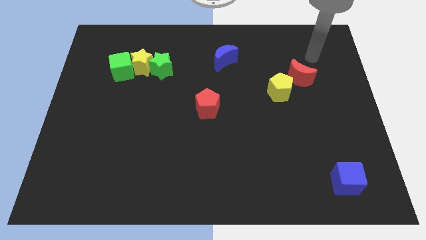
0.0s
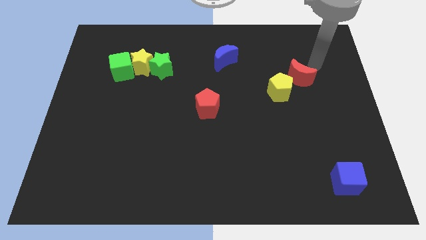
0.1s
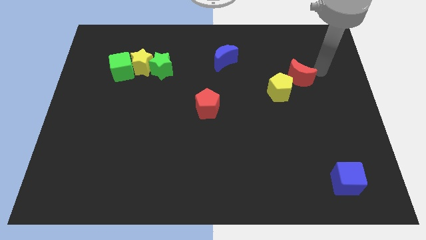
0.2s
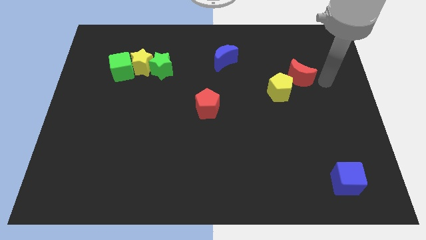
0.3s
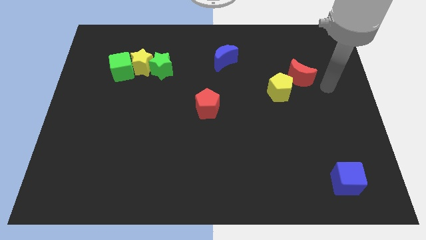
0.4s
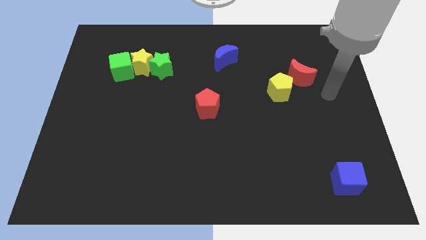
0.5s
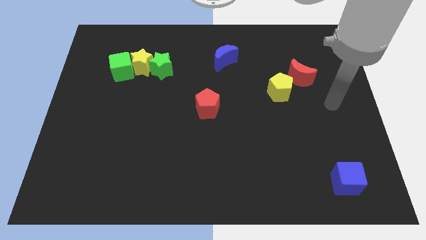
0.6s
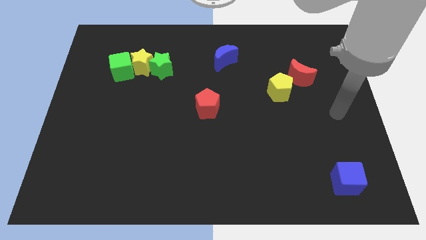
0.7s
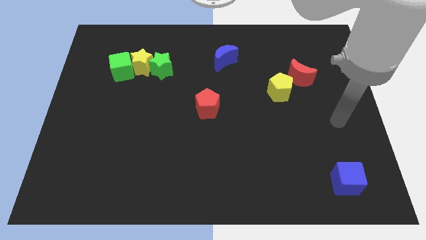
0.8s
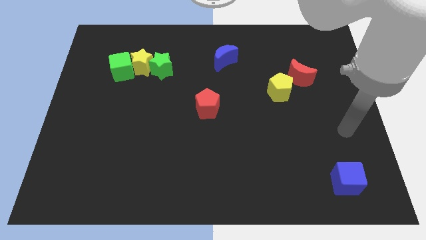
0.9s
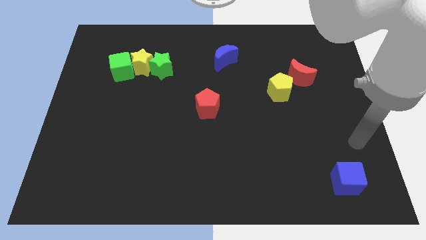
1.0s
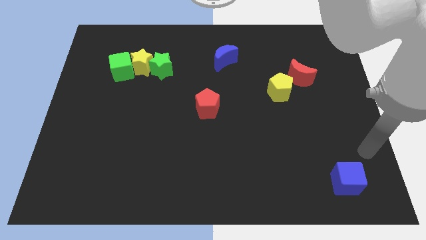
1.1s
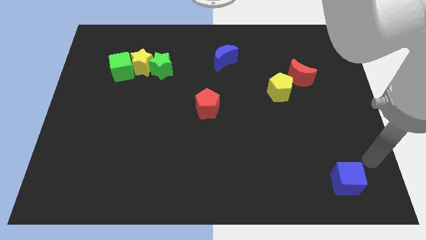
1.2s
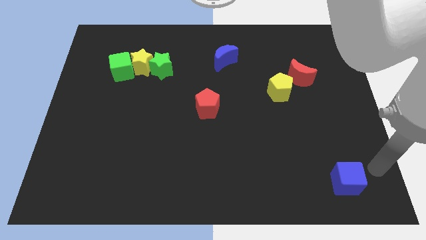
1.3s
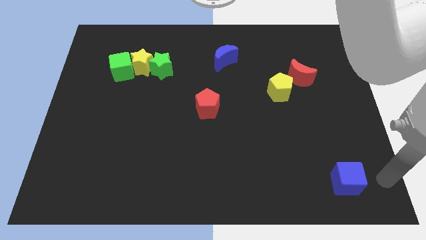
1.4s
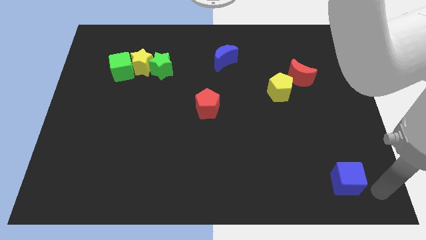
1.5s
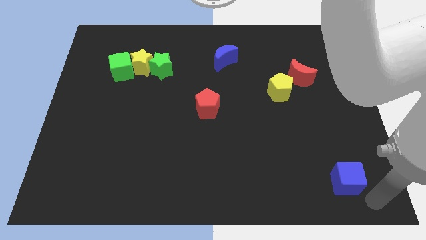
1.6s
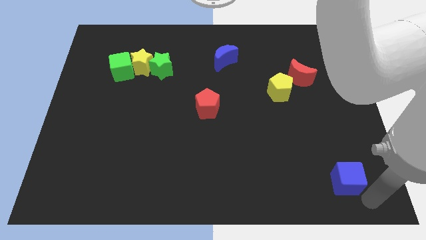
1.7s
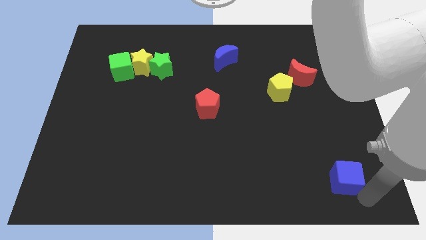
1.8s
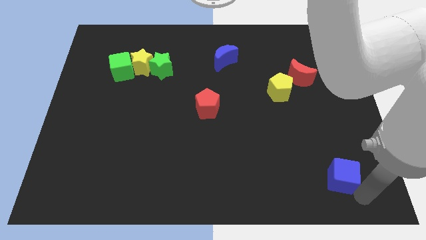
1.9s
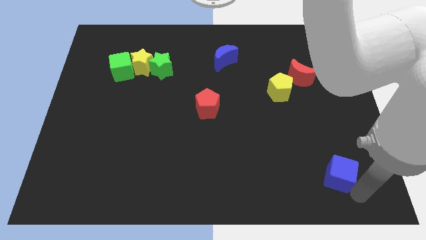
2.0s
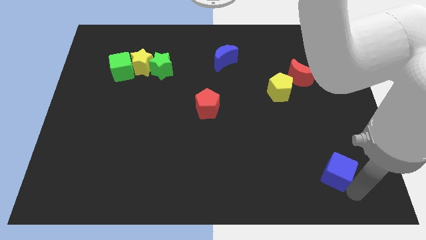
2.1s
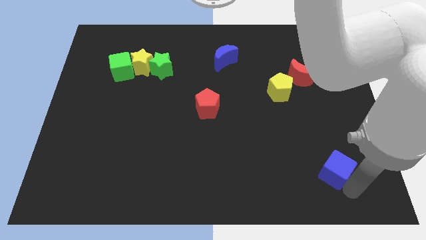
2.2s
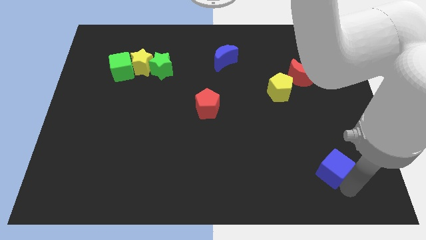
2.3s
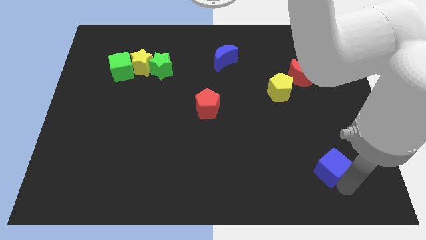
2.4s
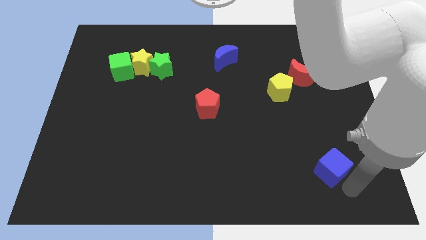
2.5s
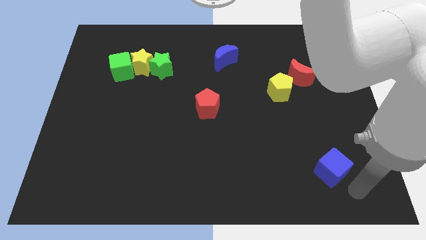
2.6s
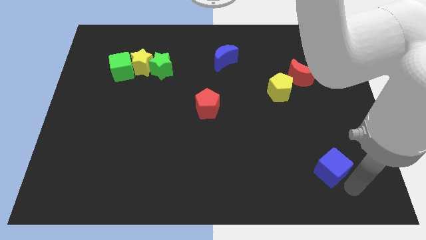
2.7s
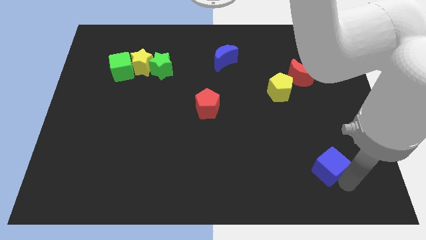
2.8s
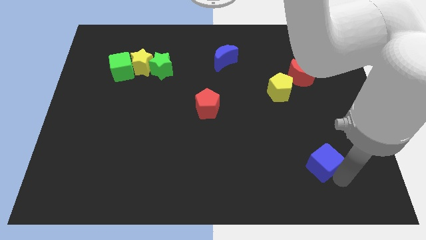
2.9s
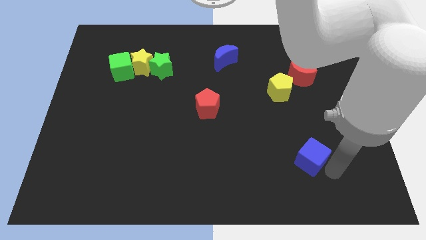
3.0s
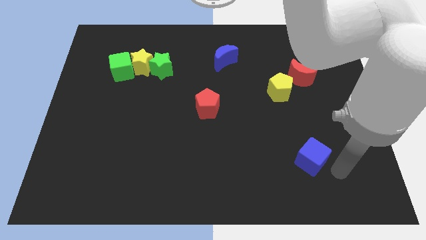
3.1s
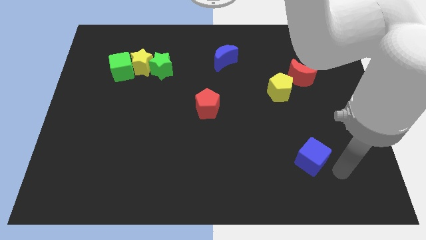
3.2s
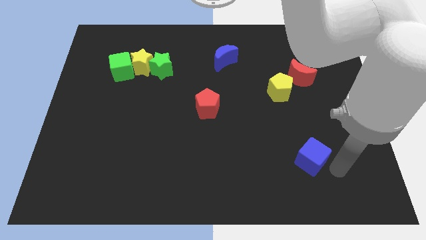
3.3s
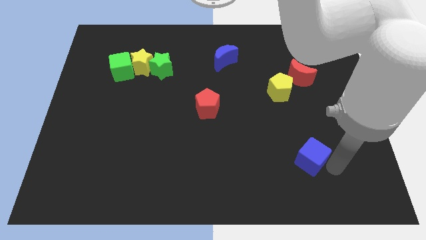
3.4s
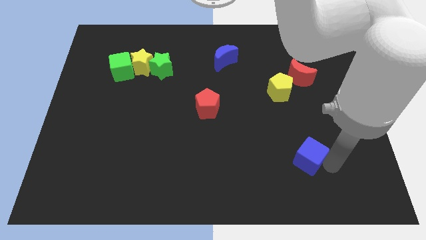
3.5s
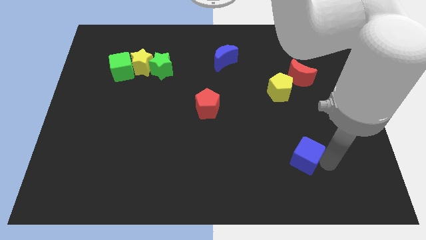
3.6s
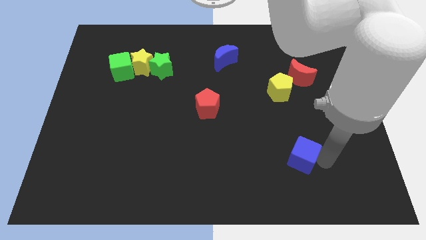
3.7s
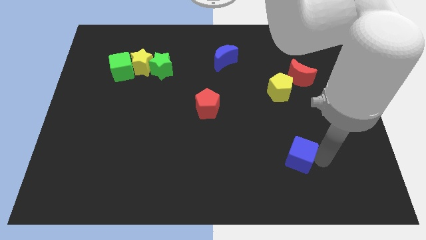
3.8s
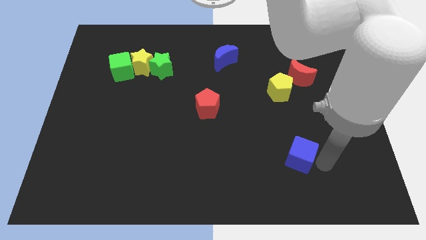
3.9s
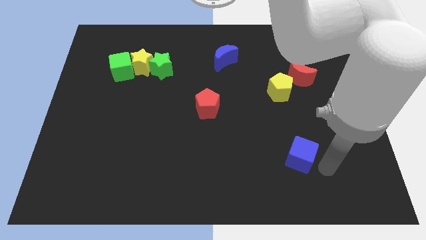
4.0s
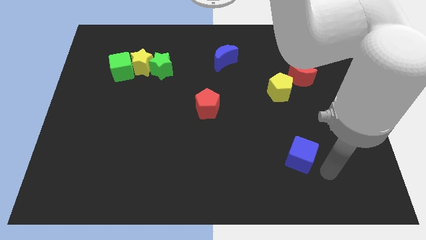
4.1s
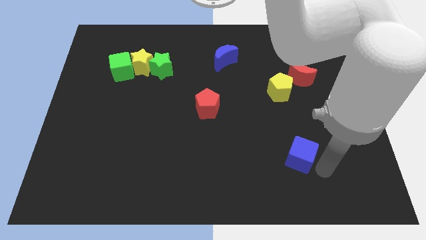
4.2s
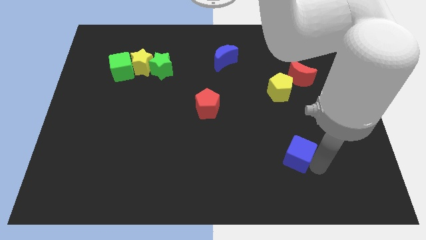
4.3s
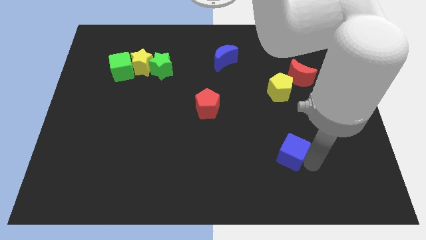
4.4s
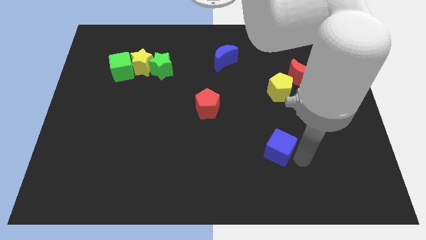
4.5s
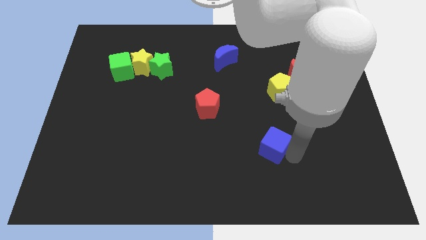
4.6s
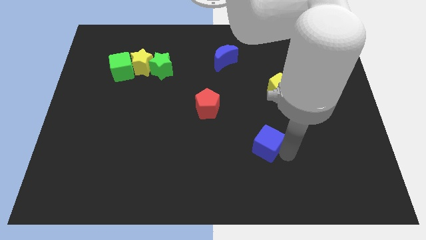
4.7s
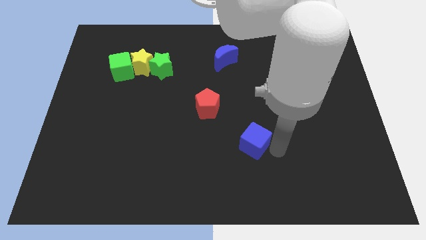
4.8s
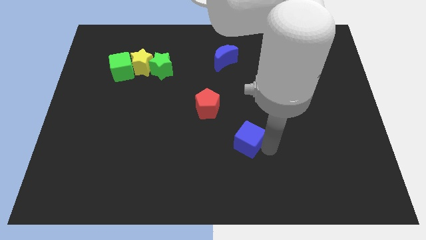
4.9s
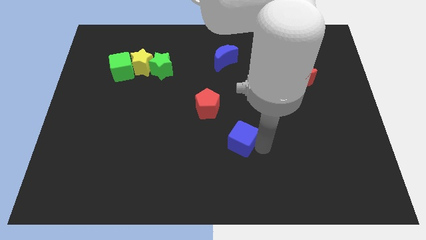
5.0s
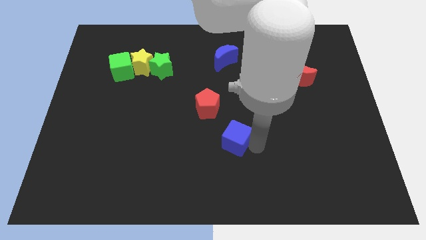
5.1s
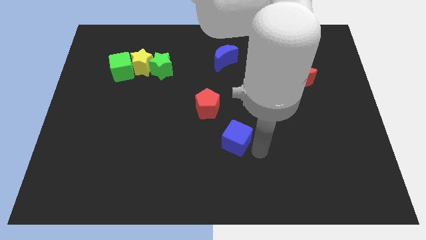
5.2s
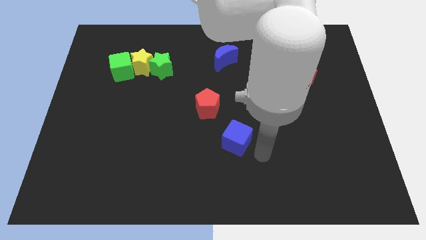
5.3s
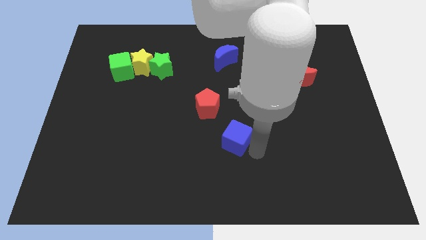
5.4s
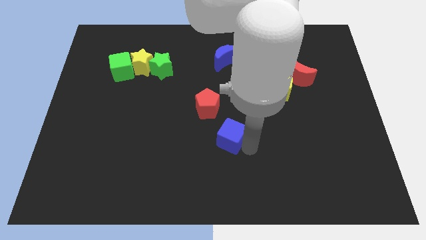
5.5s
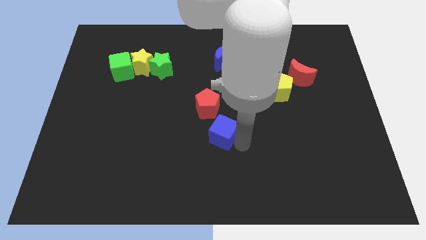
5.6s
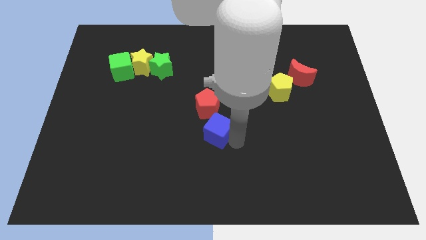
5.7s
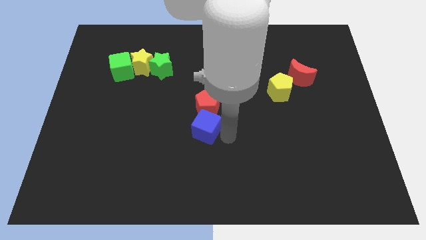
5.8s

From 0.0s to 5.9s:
put the blue cube to the bottom left of the red pentagon

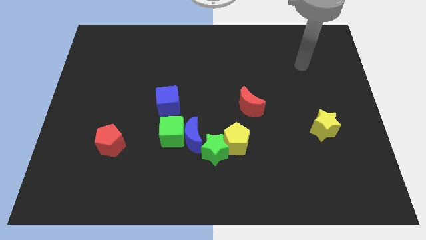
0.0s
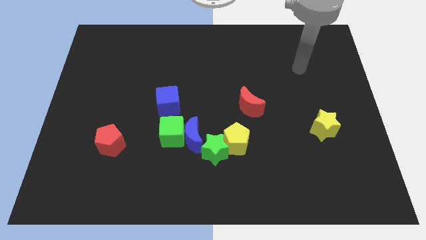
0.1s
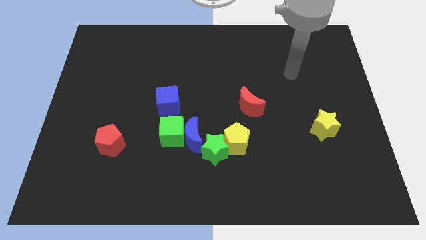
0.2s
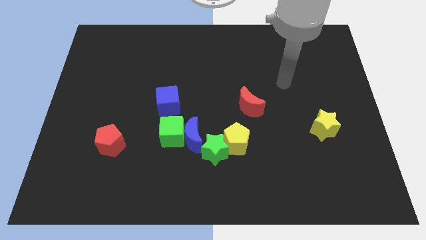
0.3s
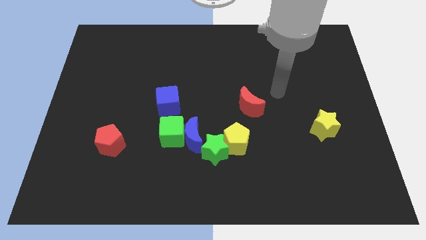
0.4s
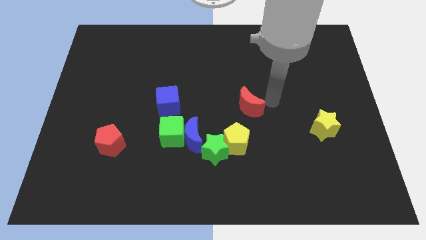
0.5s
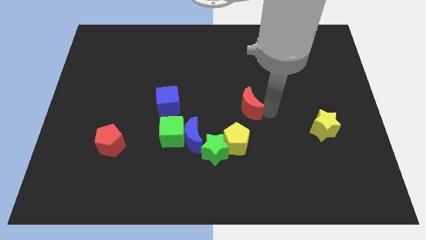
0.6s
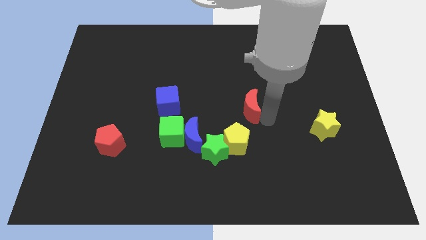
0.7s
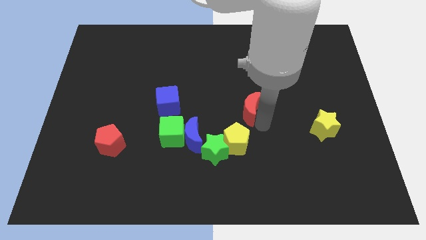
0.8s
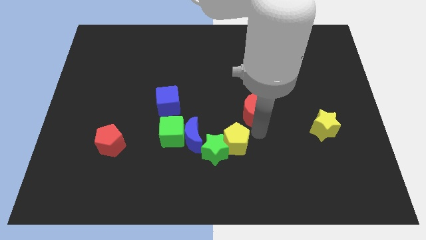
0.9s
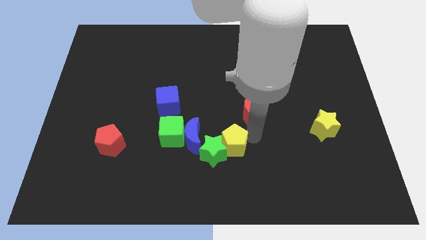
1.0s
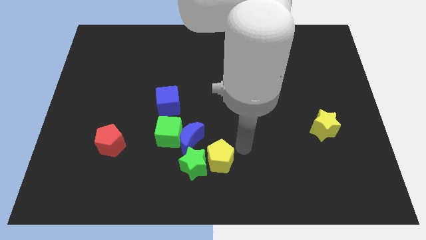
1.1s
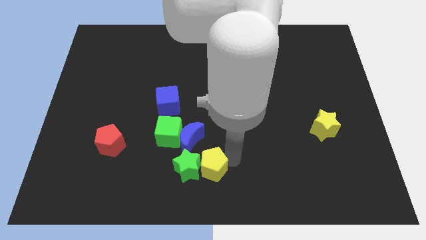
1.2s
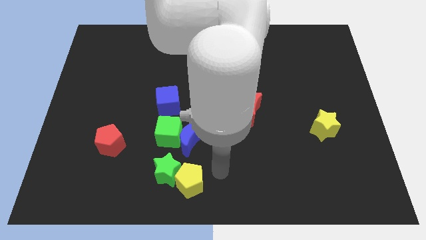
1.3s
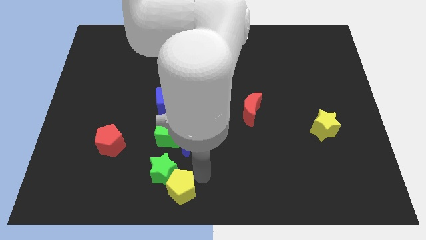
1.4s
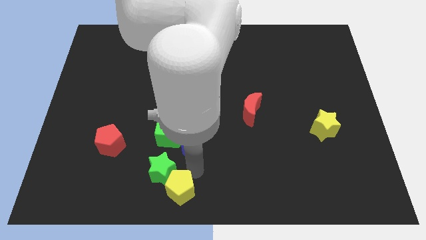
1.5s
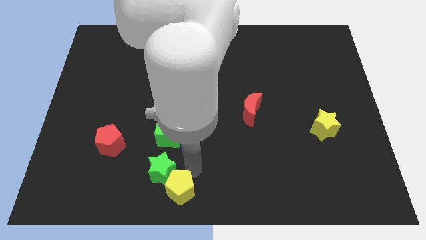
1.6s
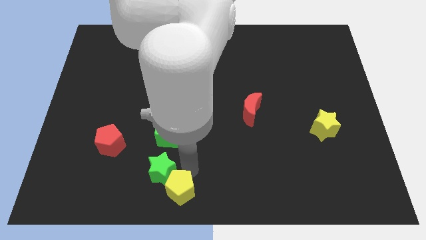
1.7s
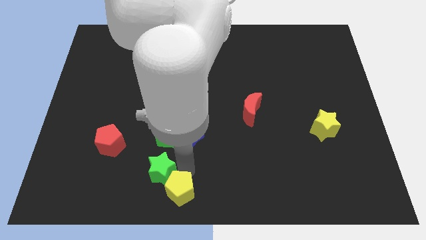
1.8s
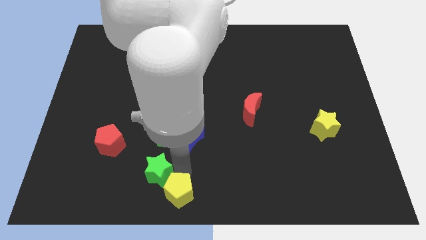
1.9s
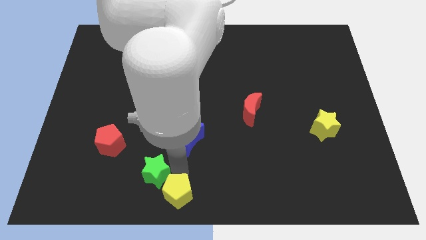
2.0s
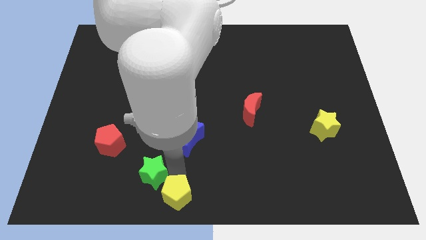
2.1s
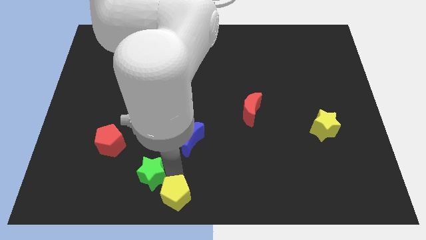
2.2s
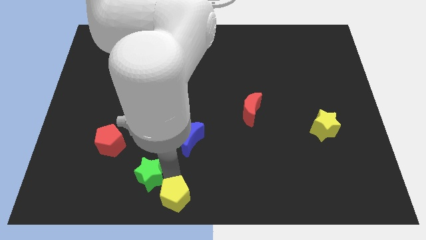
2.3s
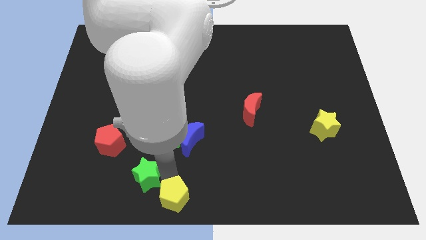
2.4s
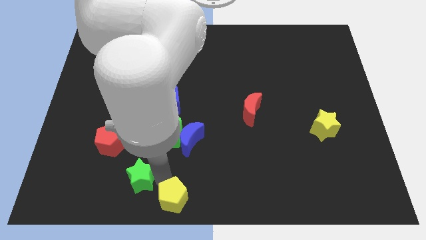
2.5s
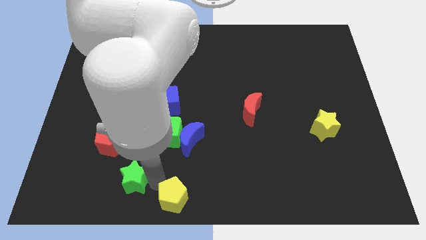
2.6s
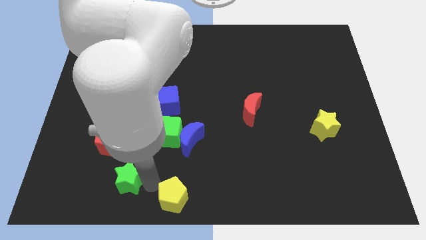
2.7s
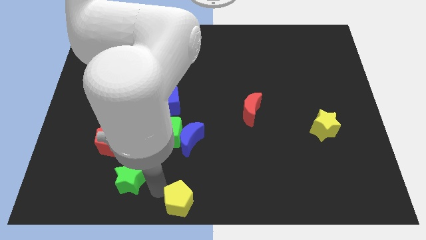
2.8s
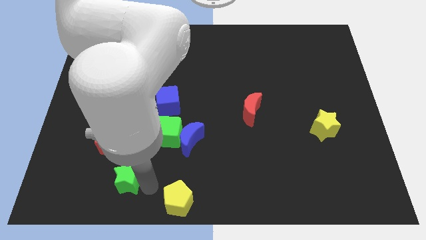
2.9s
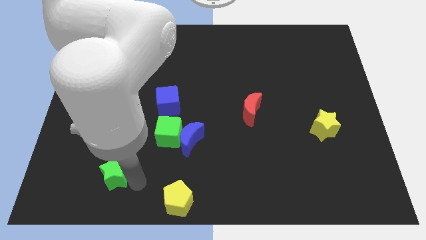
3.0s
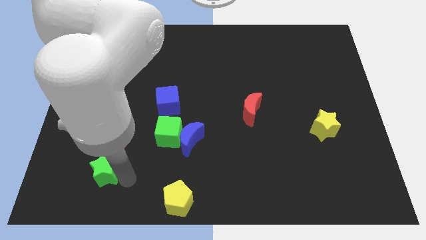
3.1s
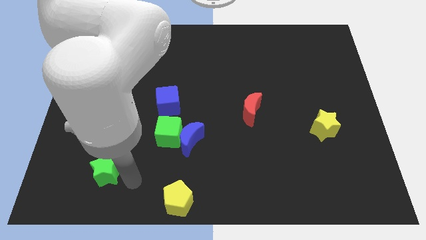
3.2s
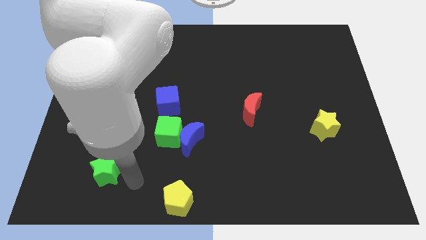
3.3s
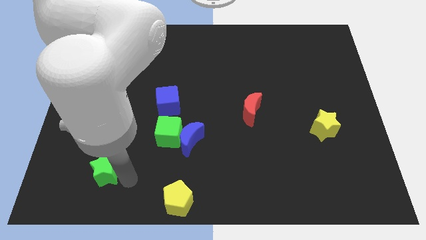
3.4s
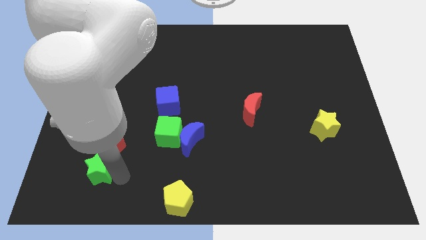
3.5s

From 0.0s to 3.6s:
move the green star to the bottom left side of the red pentagon
